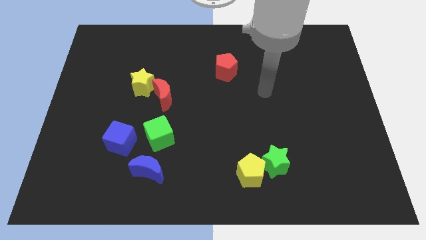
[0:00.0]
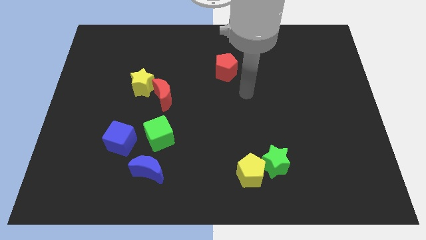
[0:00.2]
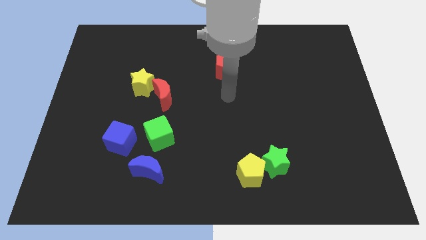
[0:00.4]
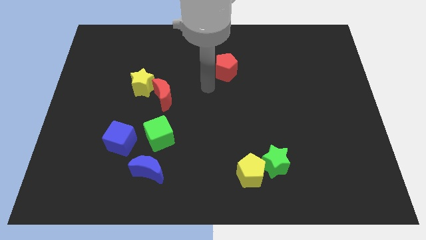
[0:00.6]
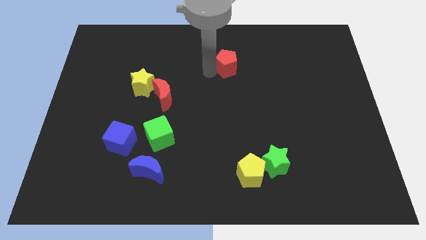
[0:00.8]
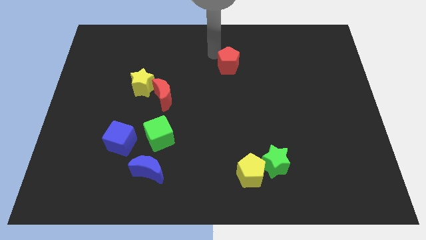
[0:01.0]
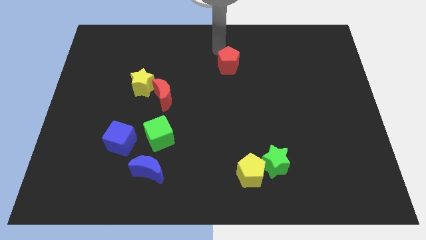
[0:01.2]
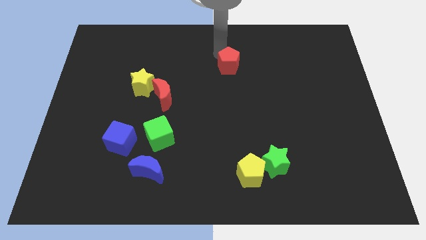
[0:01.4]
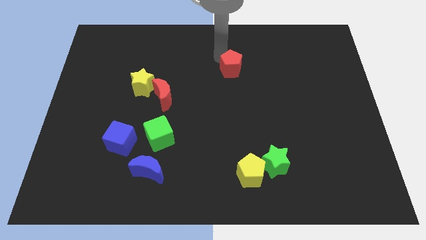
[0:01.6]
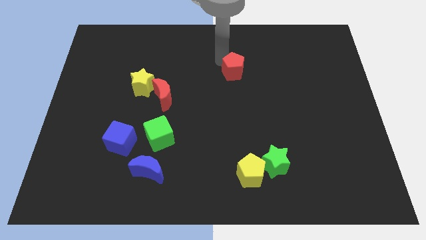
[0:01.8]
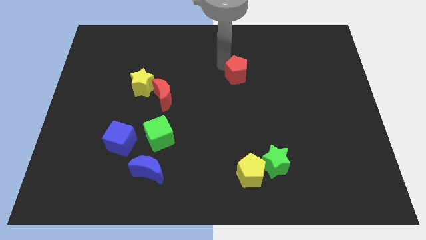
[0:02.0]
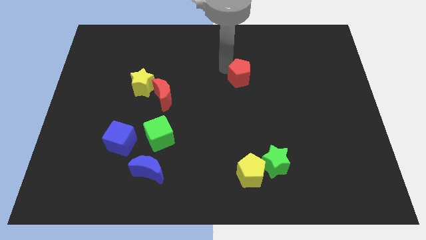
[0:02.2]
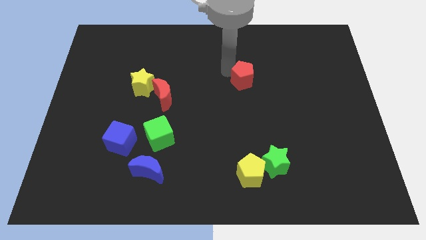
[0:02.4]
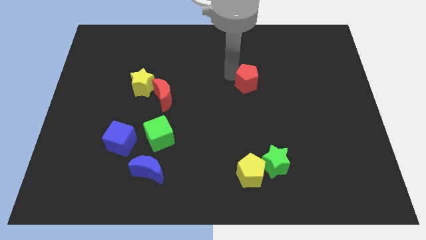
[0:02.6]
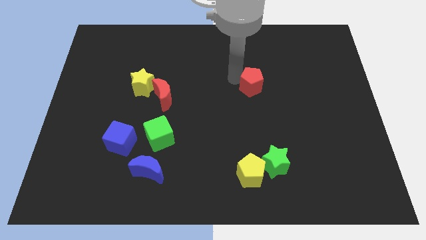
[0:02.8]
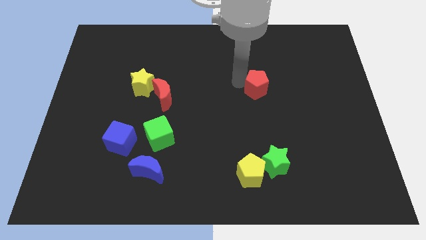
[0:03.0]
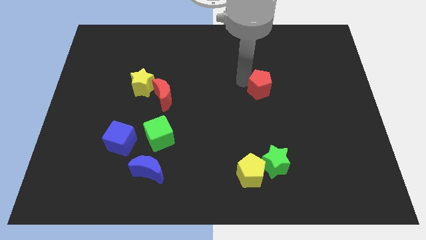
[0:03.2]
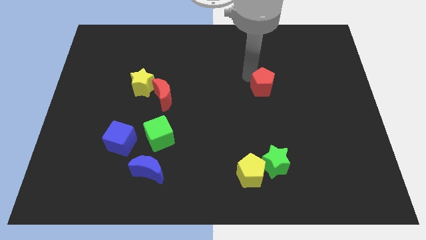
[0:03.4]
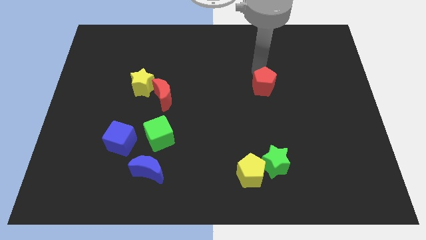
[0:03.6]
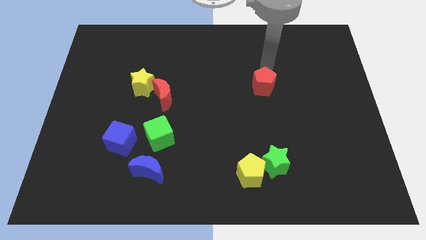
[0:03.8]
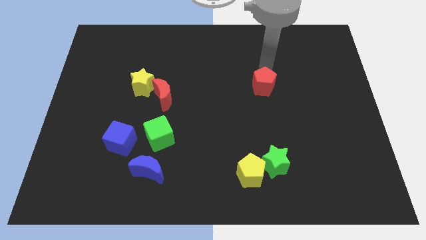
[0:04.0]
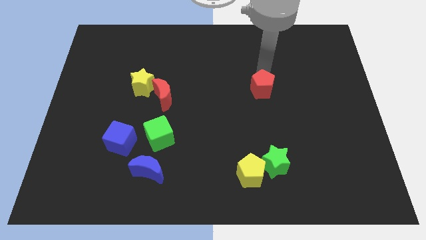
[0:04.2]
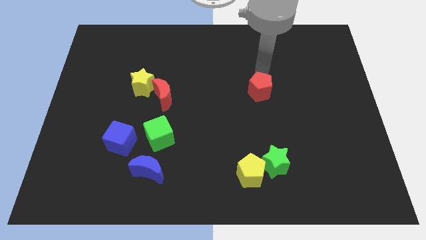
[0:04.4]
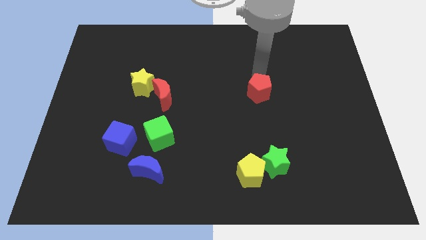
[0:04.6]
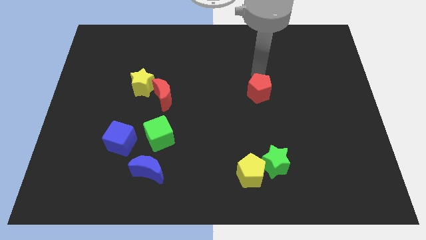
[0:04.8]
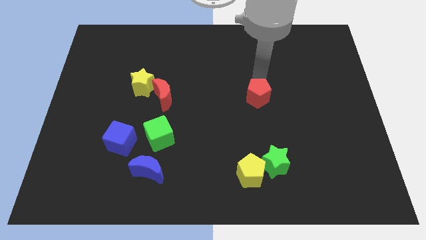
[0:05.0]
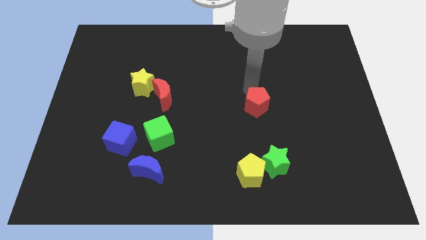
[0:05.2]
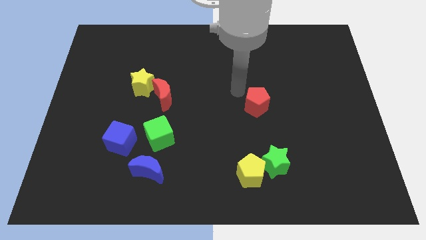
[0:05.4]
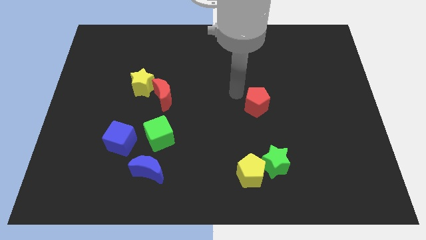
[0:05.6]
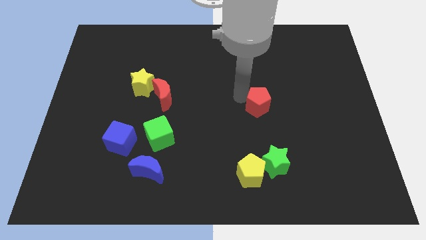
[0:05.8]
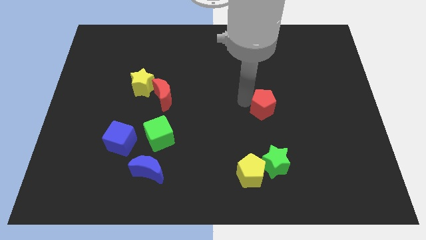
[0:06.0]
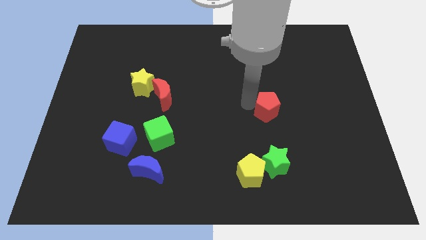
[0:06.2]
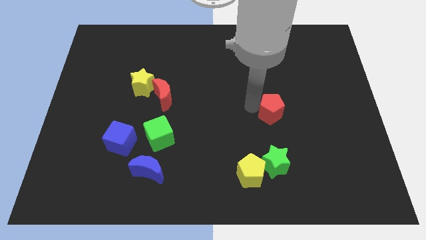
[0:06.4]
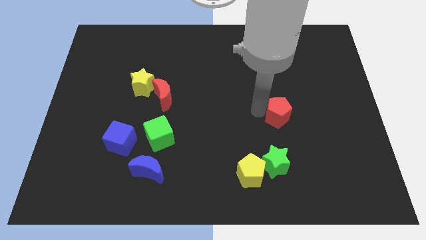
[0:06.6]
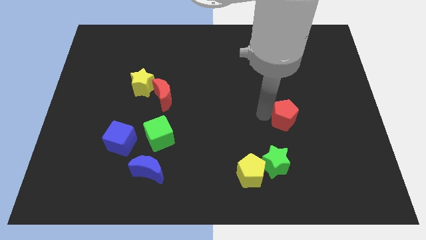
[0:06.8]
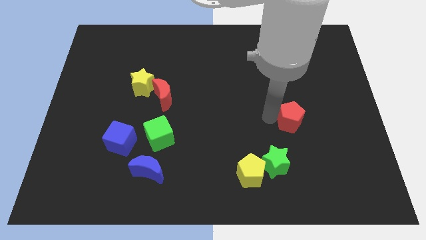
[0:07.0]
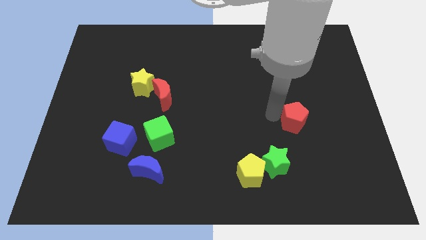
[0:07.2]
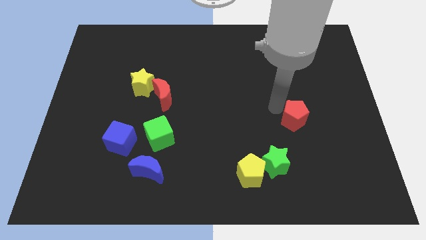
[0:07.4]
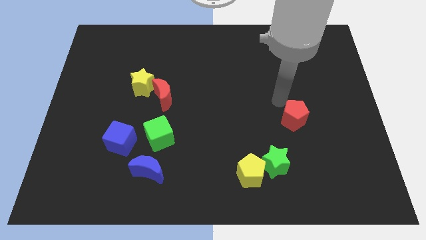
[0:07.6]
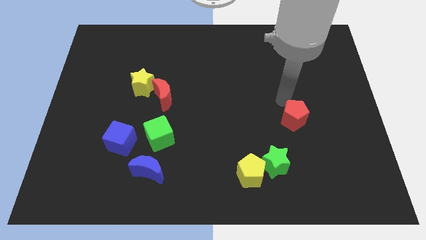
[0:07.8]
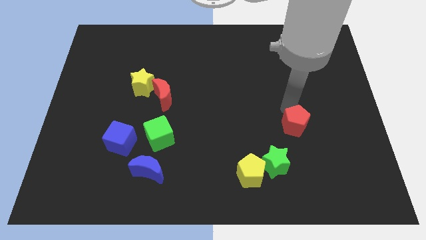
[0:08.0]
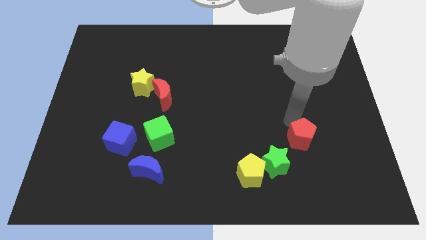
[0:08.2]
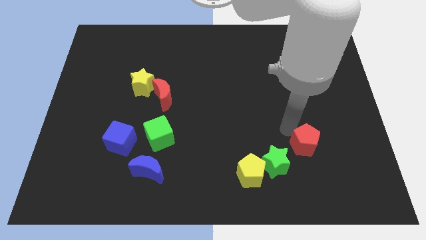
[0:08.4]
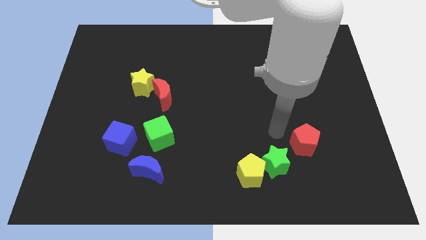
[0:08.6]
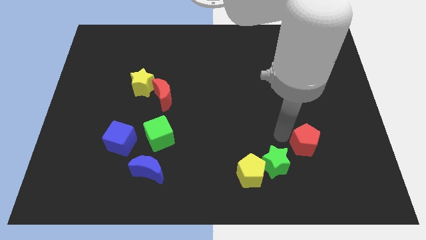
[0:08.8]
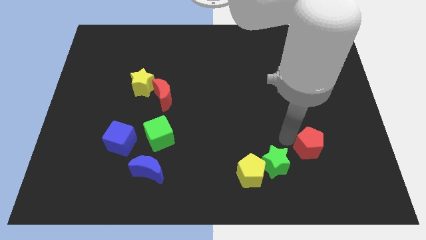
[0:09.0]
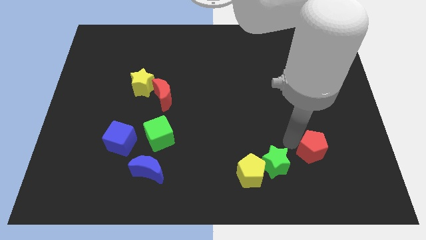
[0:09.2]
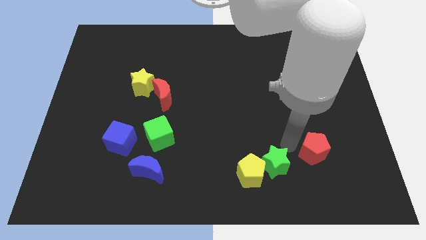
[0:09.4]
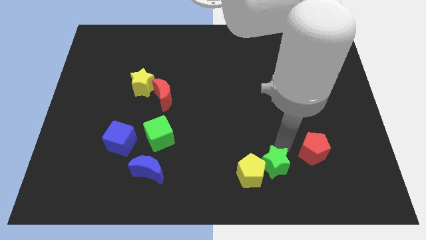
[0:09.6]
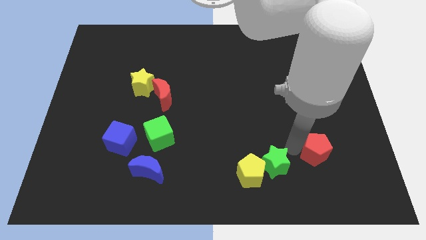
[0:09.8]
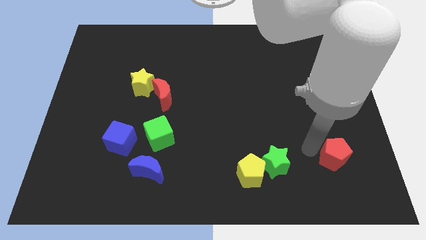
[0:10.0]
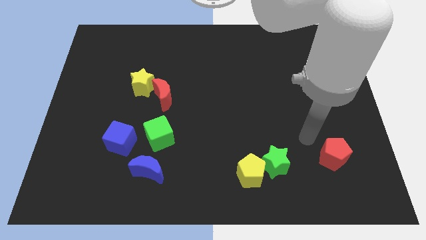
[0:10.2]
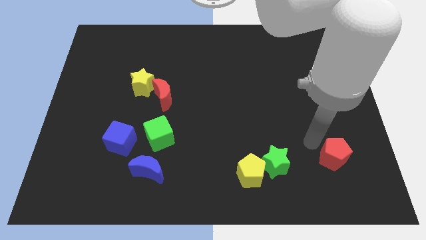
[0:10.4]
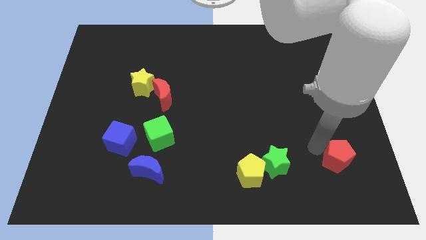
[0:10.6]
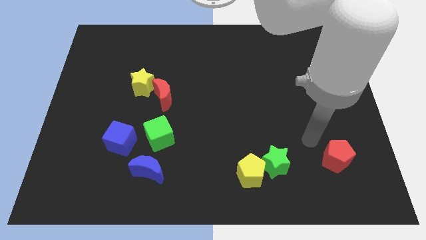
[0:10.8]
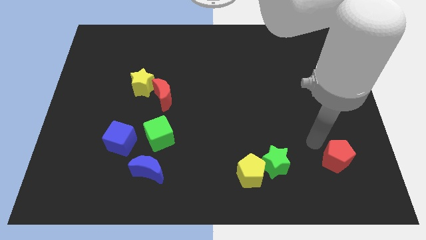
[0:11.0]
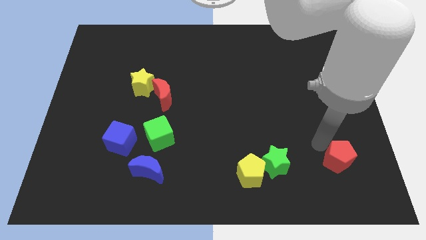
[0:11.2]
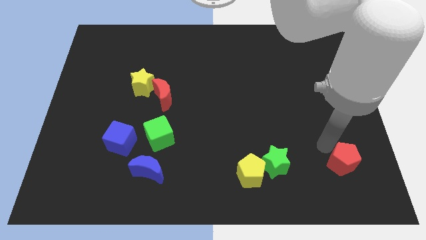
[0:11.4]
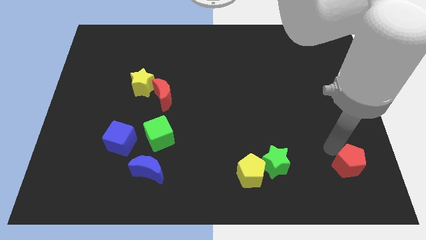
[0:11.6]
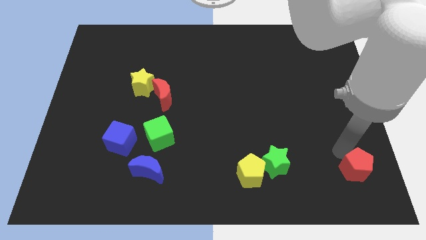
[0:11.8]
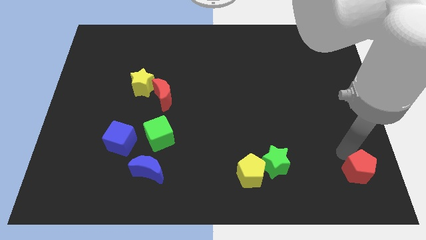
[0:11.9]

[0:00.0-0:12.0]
slide the red pentagon to the lower right corner
